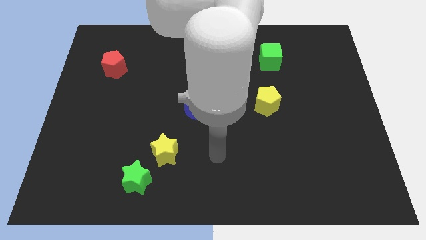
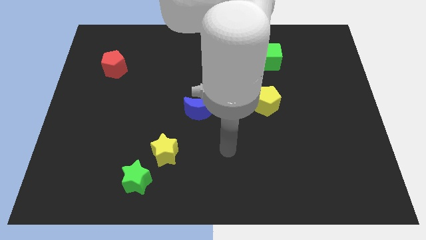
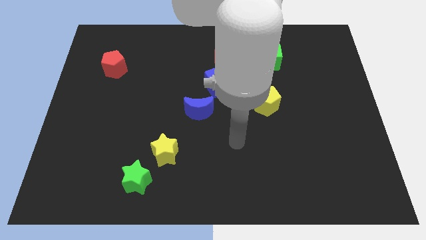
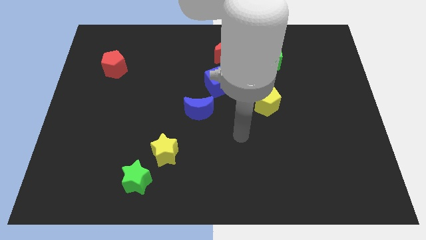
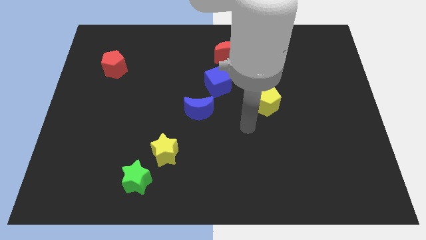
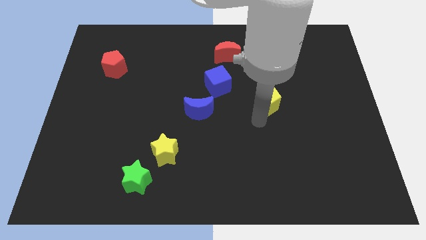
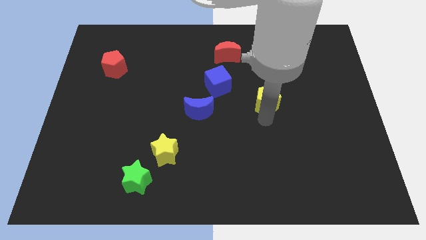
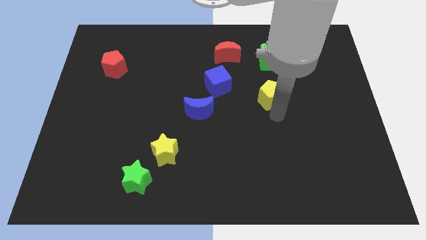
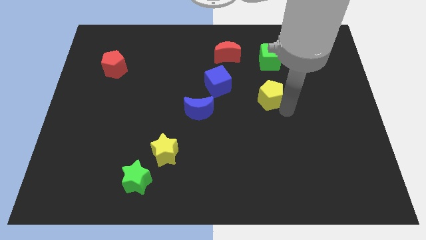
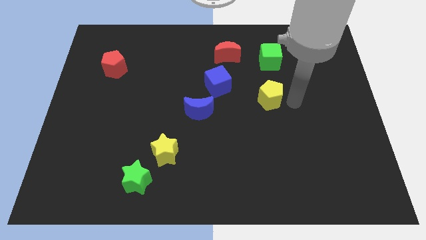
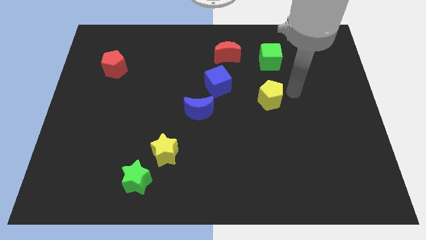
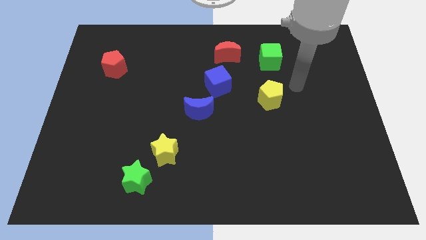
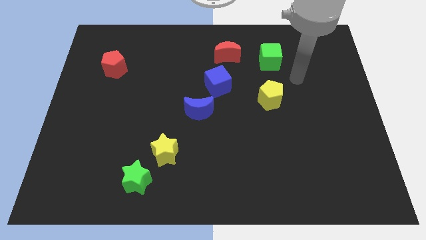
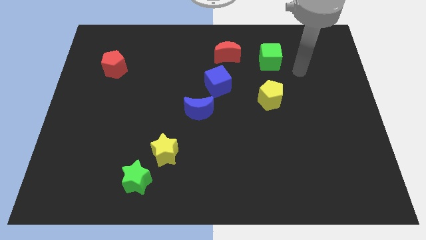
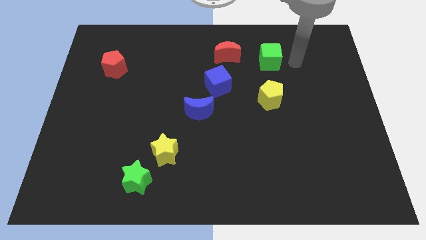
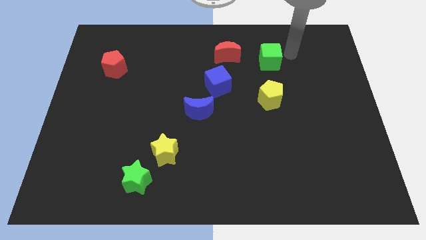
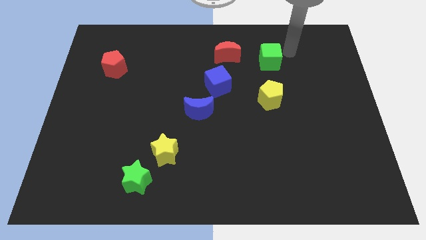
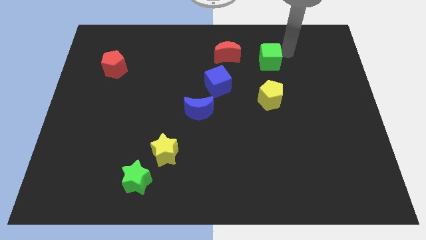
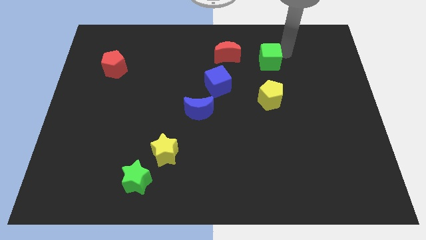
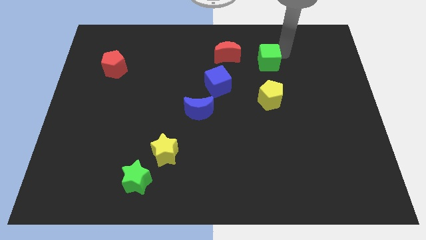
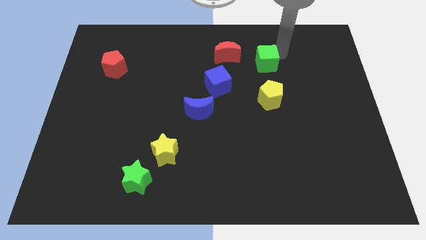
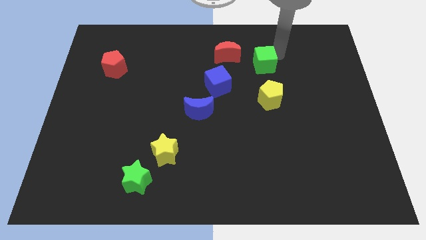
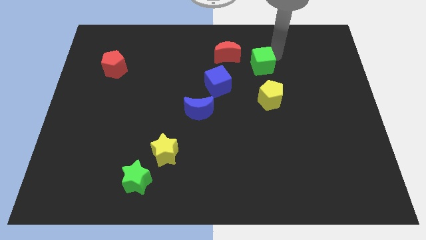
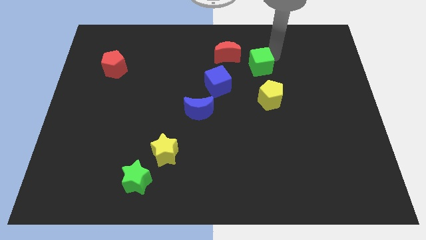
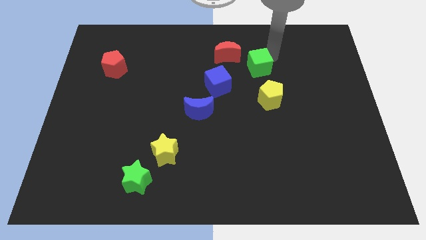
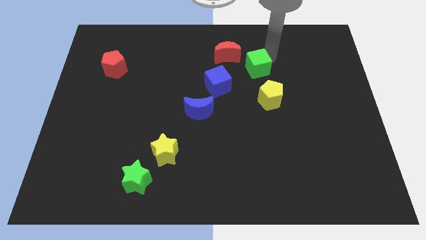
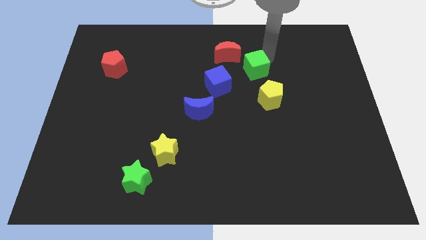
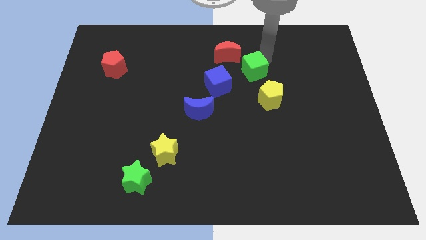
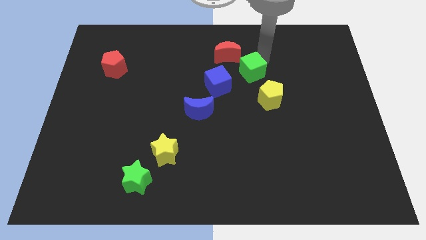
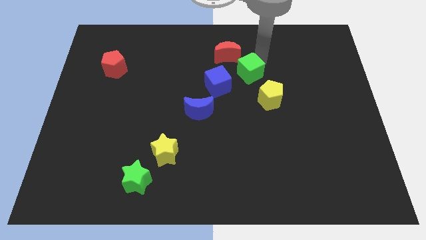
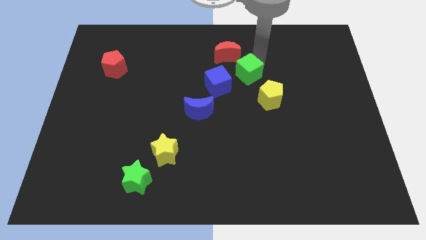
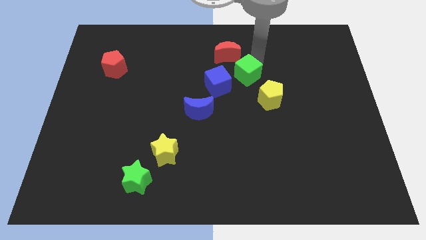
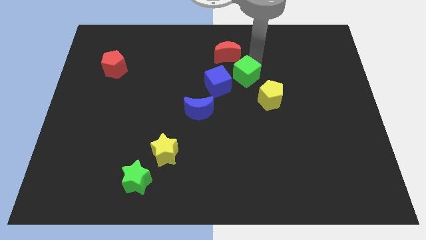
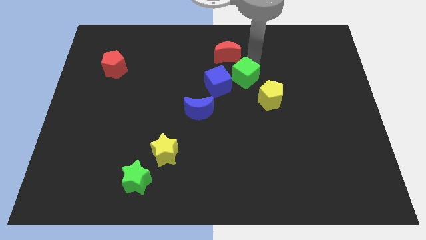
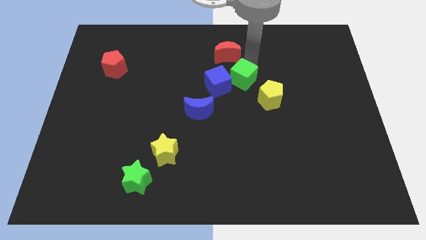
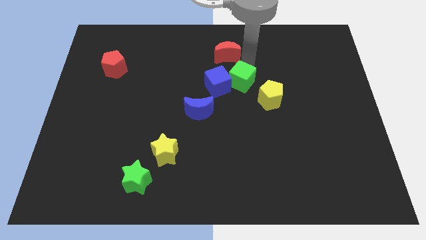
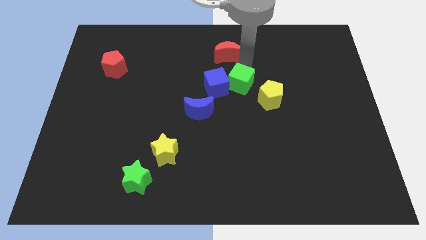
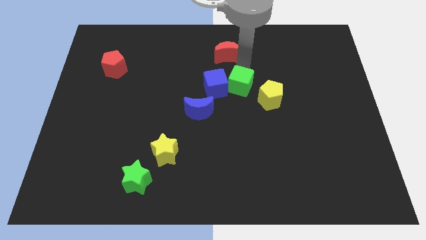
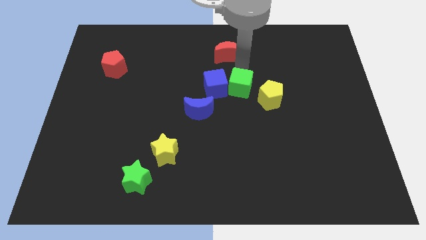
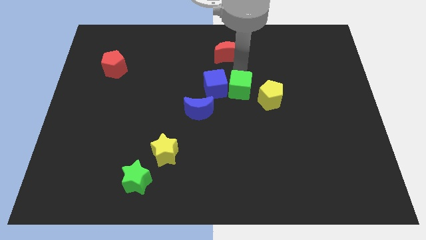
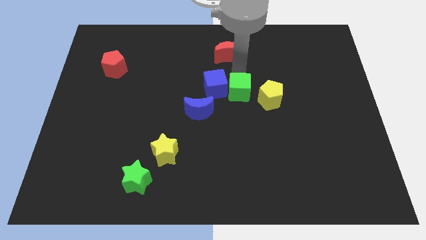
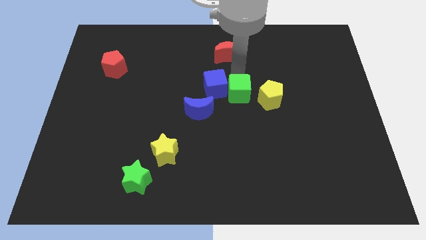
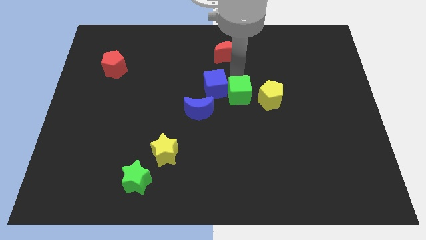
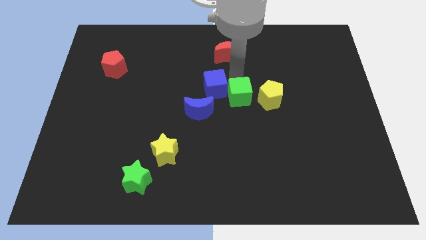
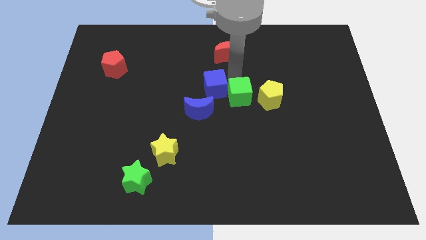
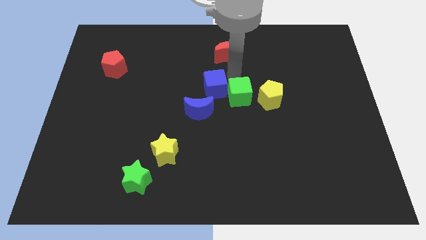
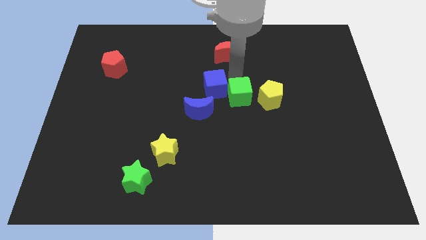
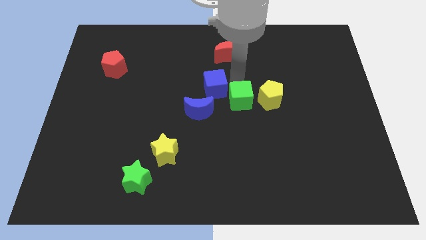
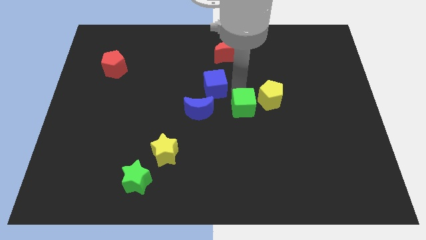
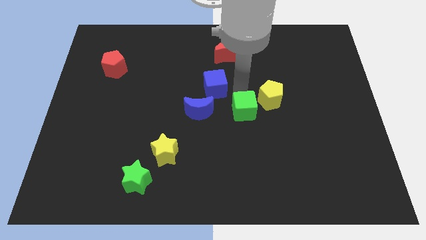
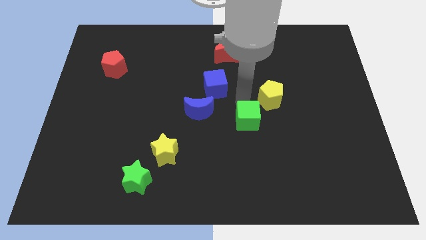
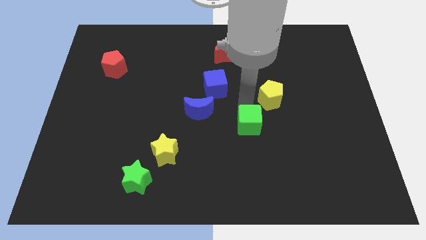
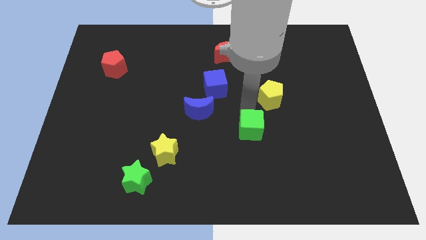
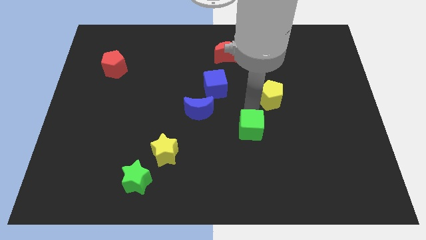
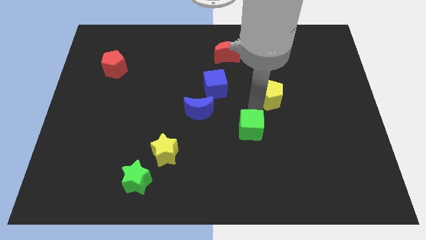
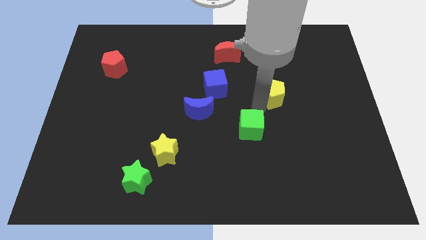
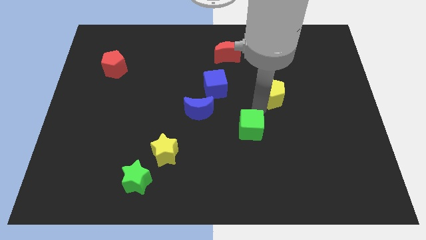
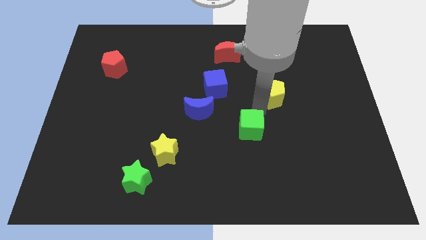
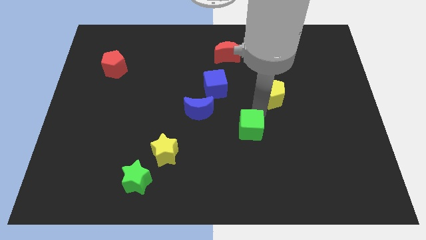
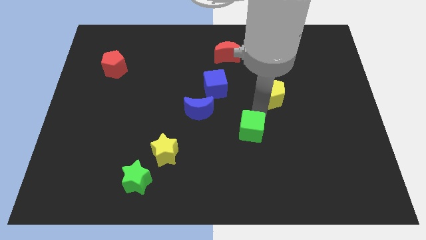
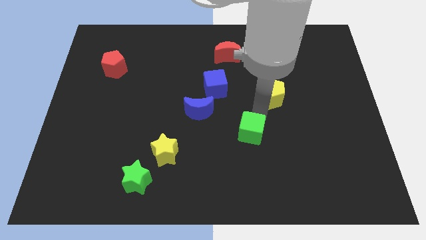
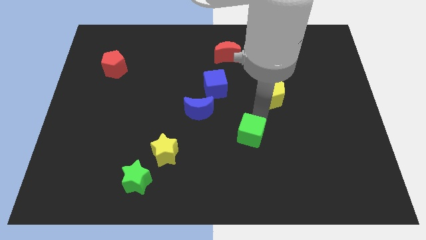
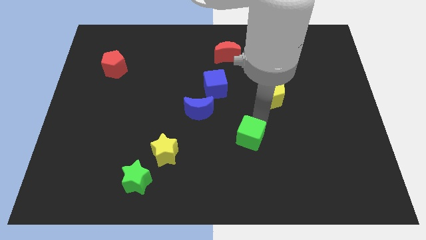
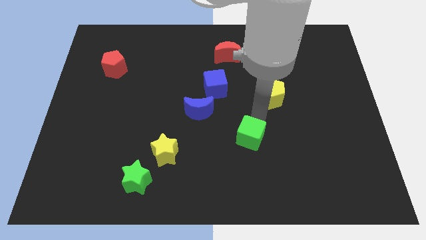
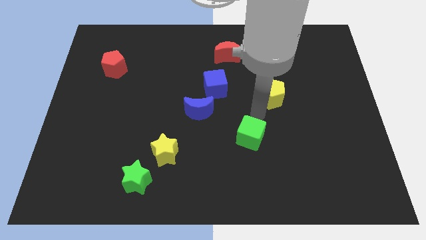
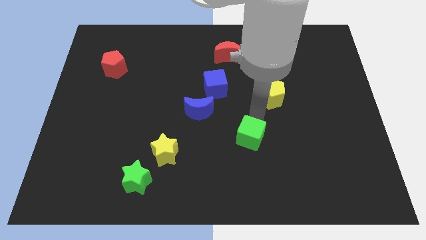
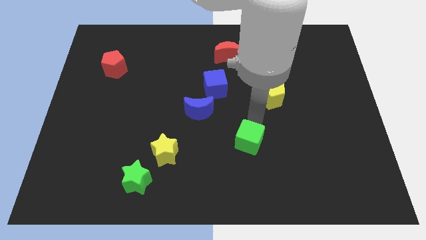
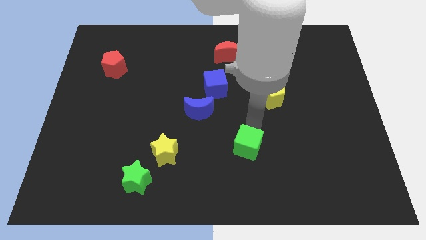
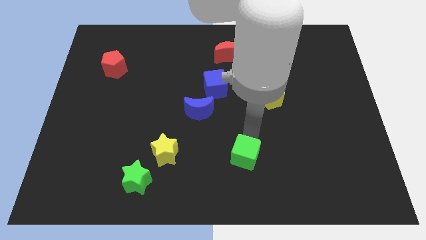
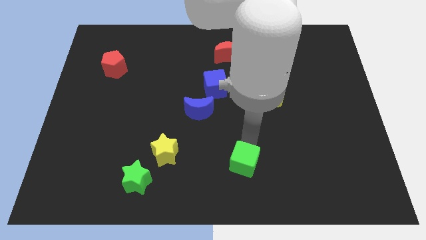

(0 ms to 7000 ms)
move the green cube to the bottom
